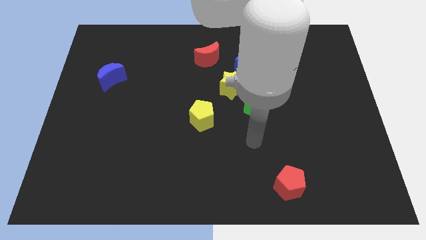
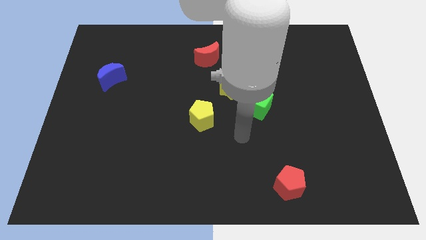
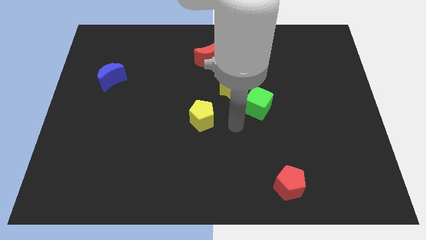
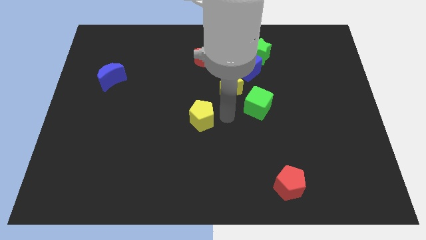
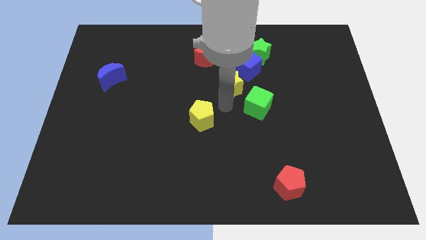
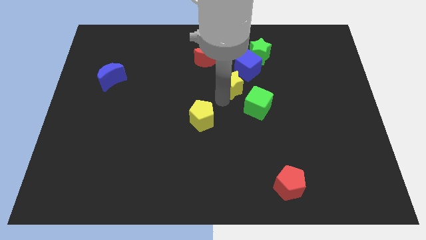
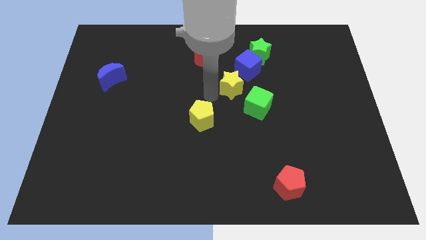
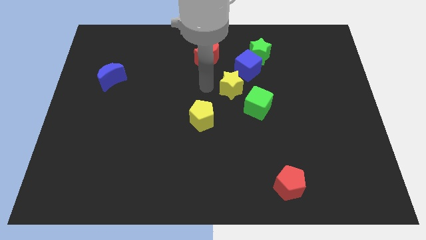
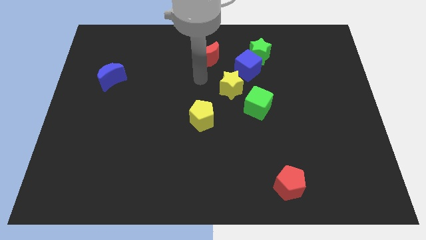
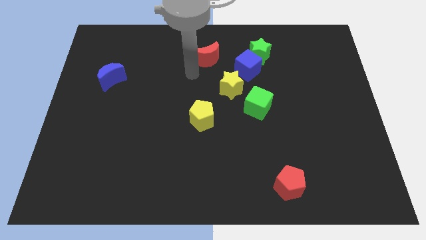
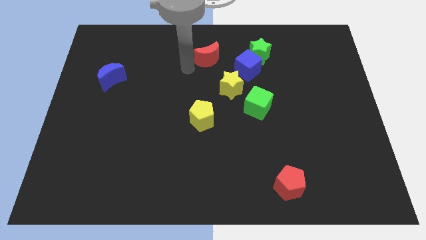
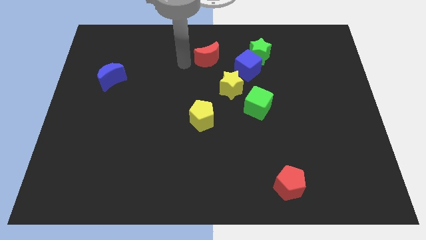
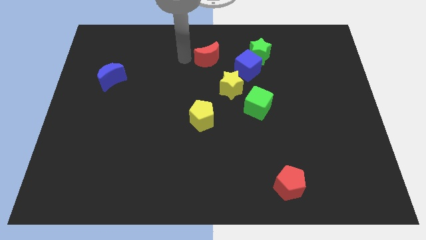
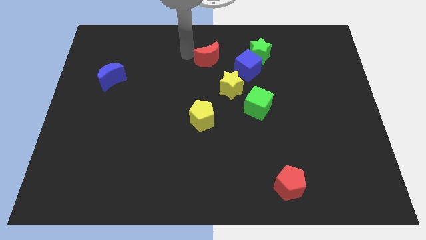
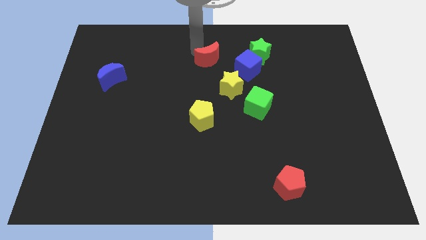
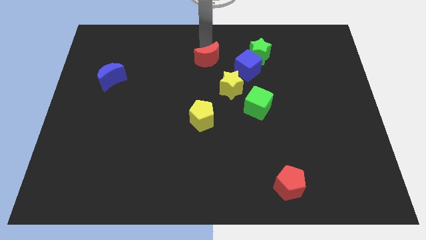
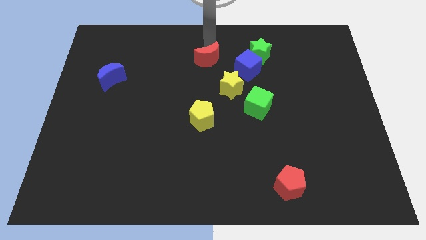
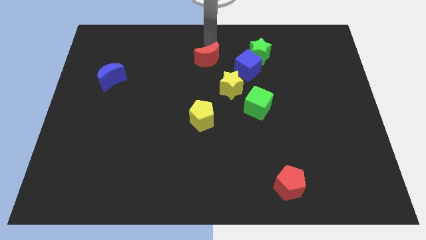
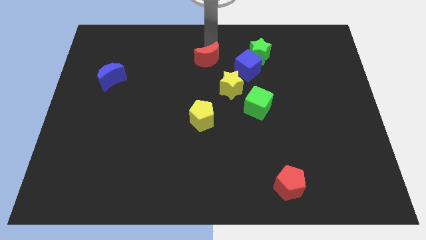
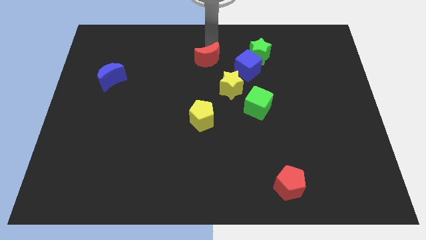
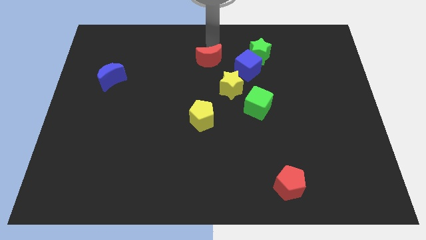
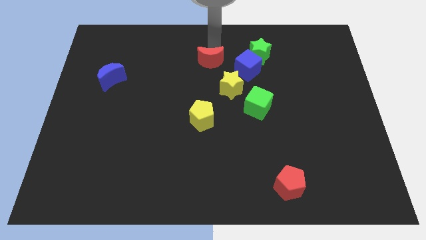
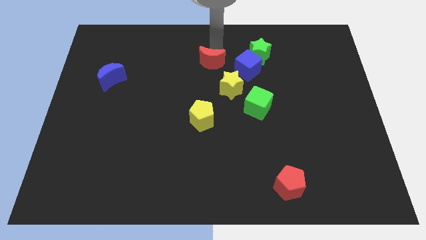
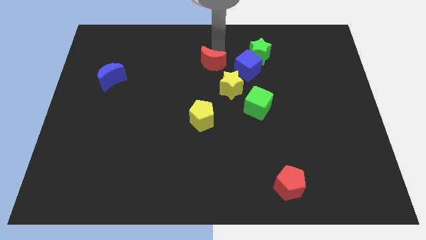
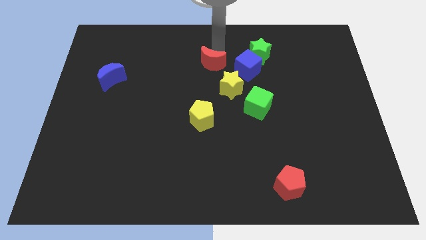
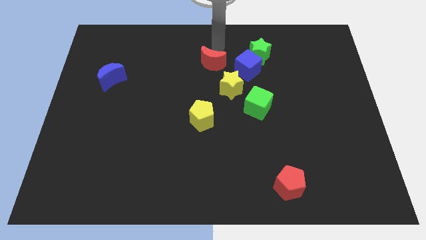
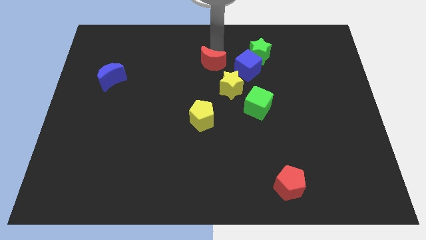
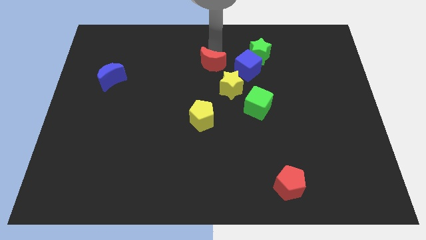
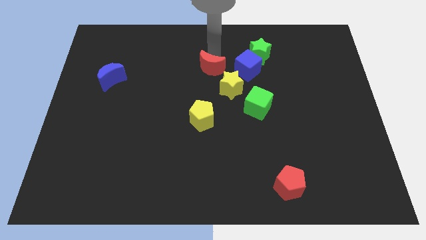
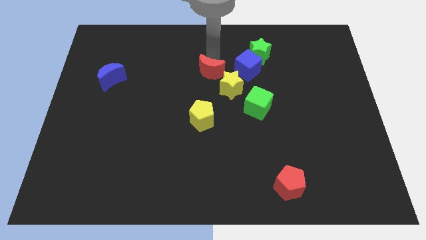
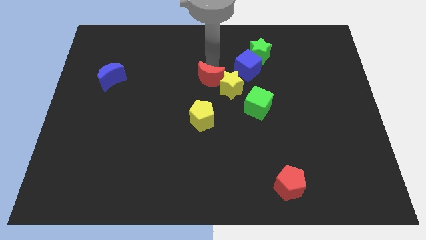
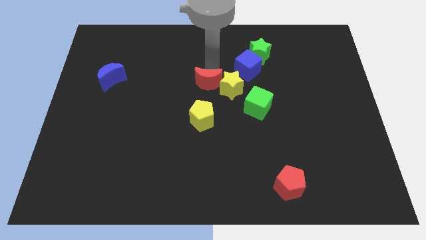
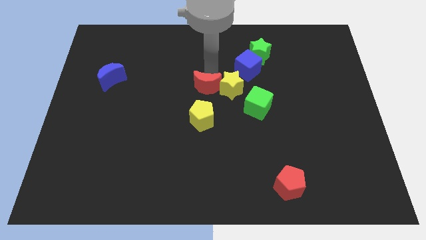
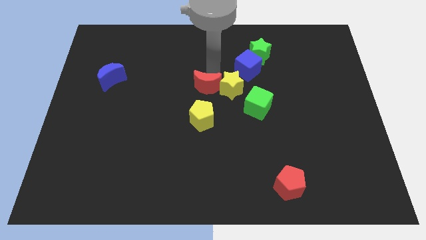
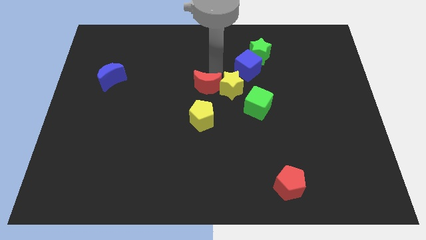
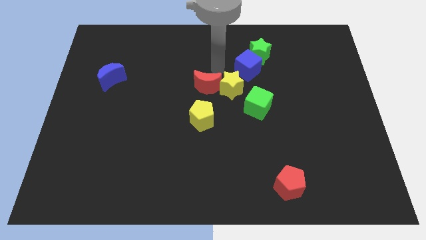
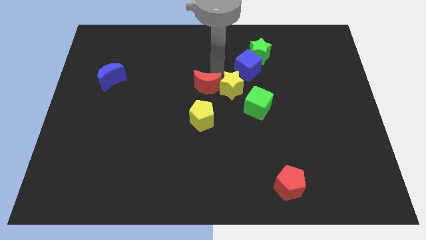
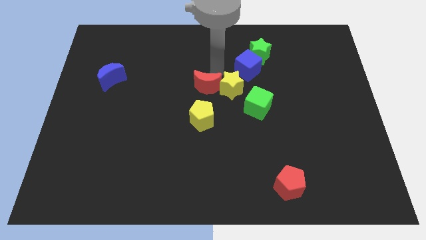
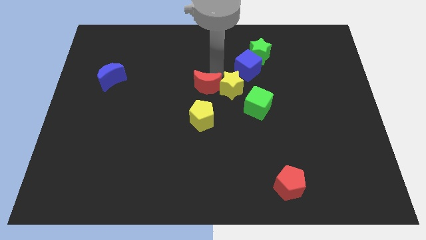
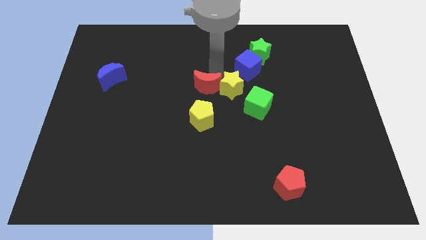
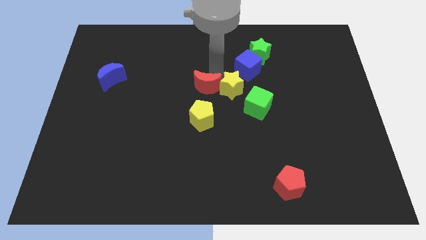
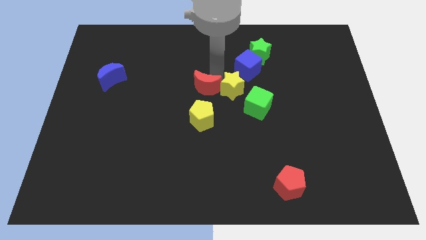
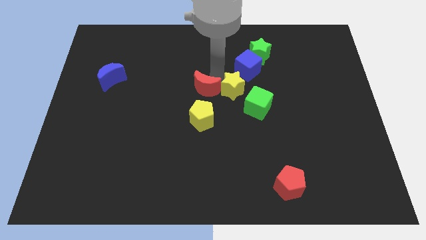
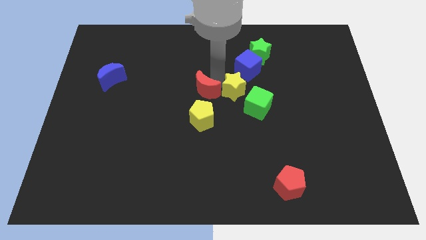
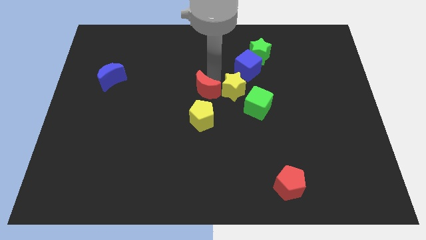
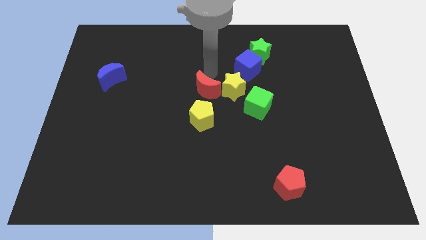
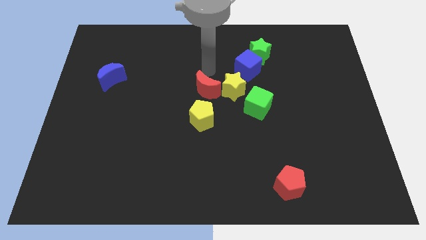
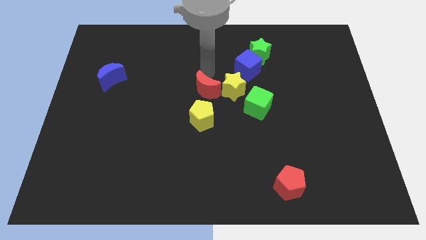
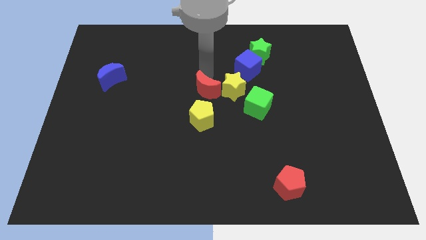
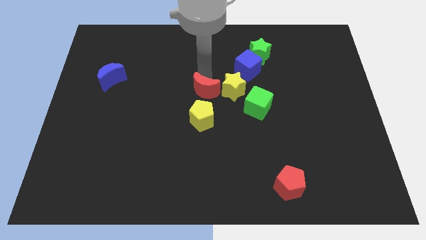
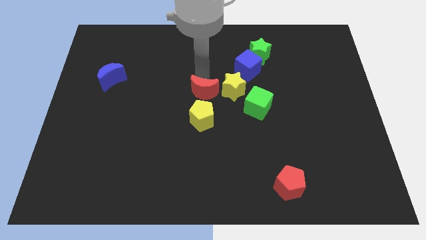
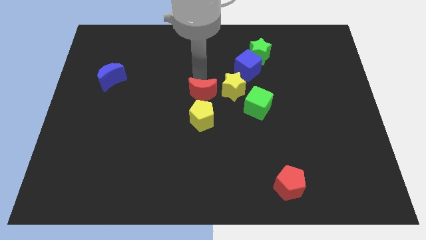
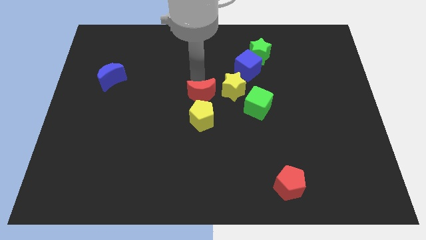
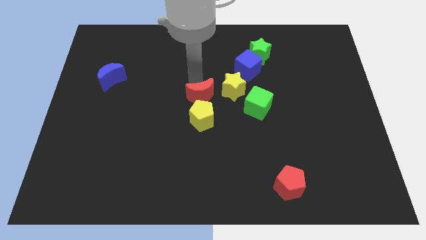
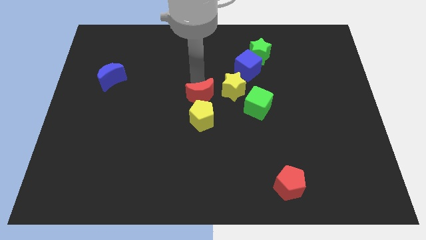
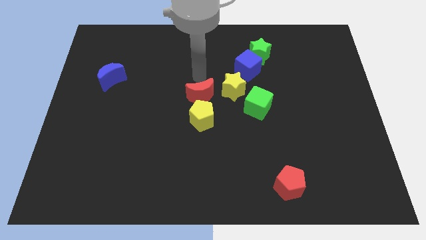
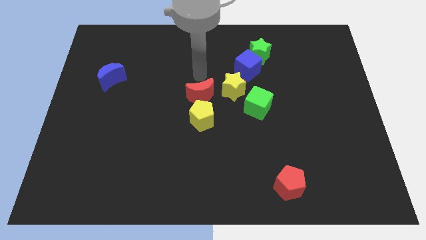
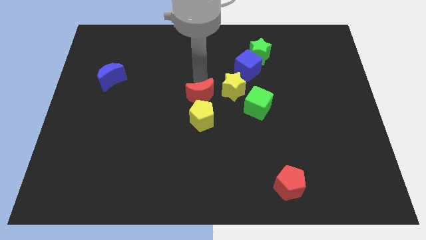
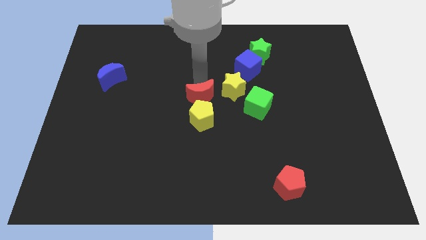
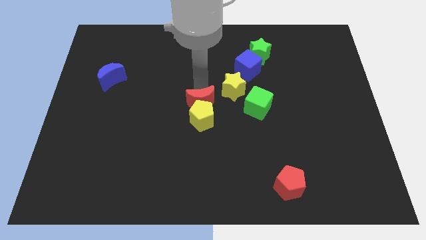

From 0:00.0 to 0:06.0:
push the red moon next to the yellow pentagon

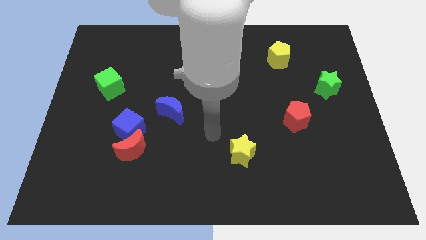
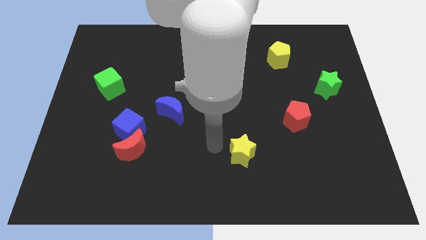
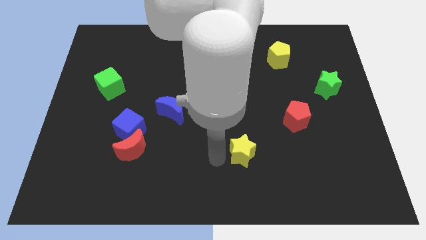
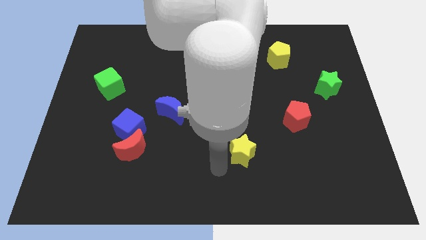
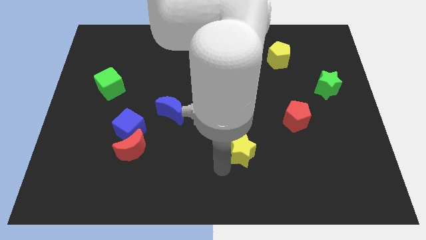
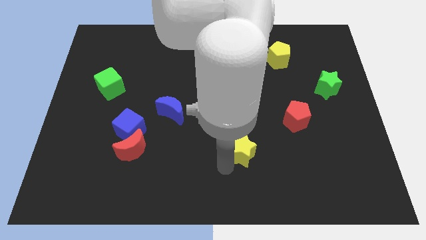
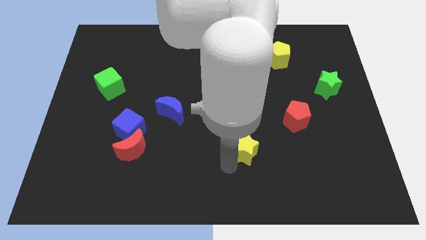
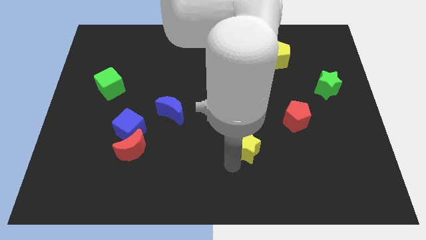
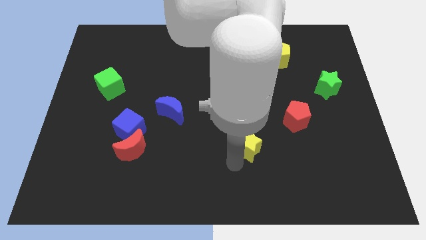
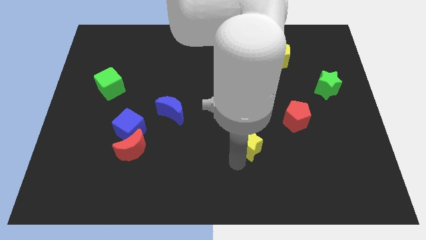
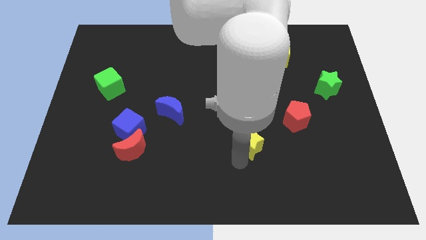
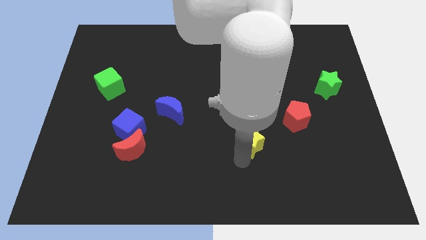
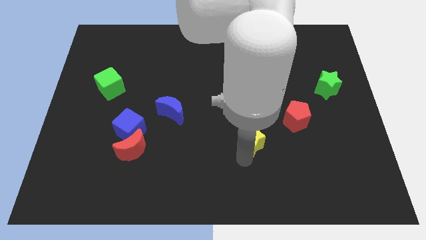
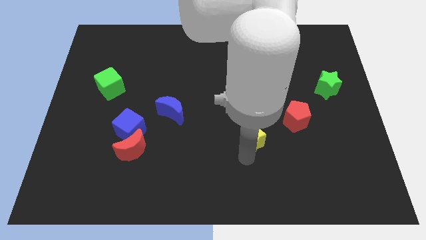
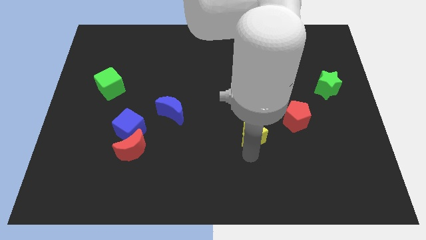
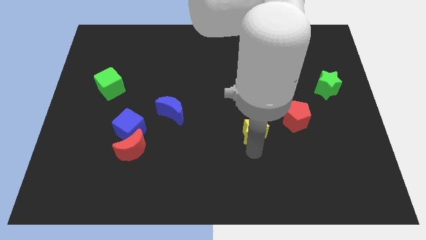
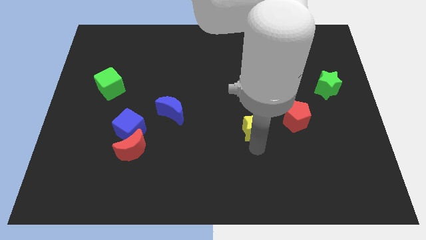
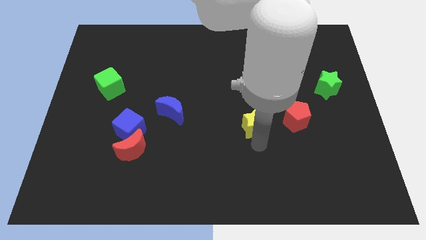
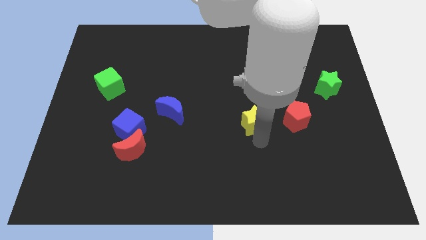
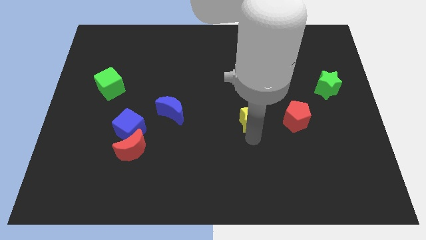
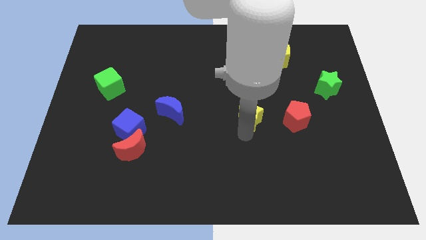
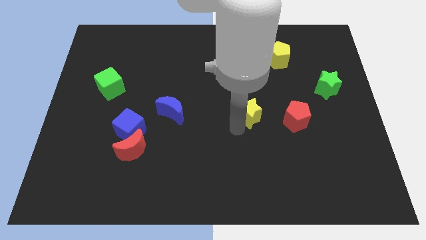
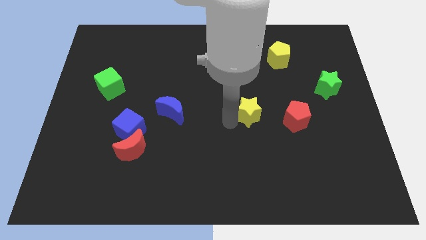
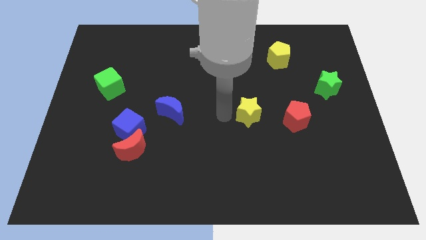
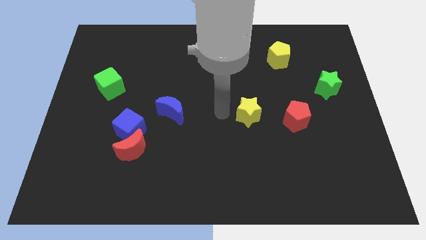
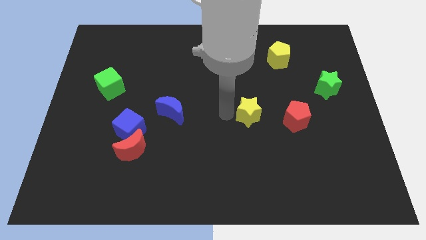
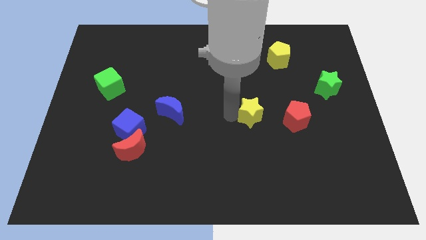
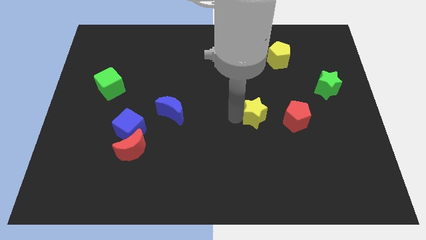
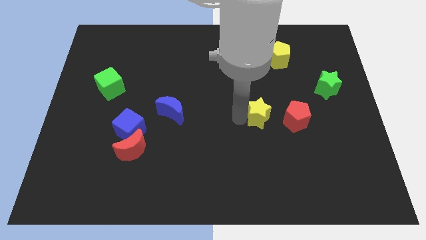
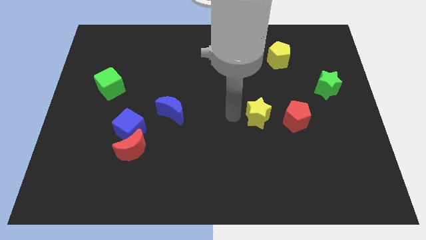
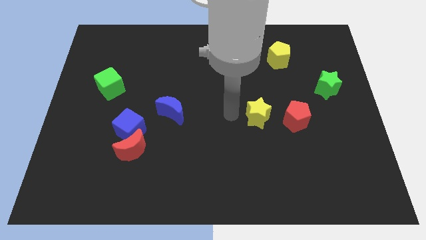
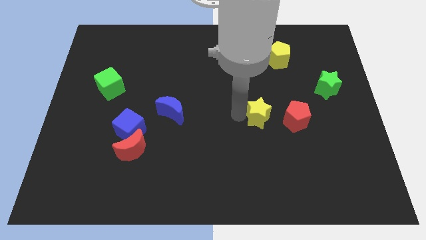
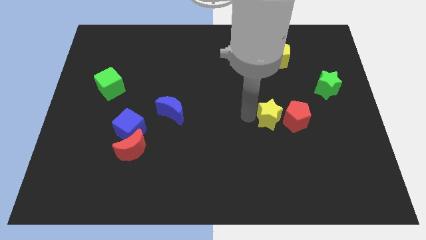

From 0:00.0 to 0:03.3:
push the yellow star towards the red pentagon
